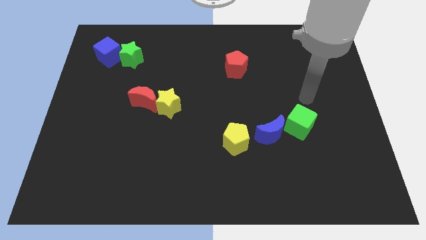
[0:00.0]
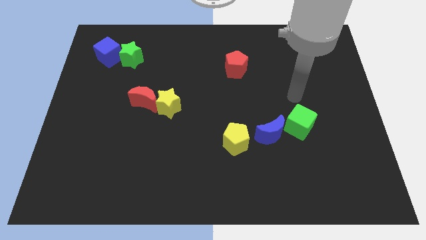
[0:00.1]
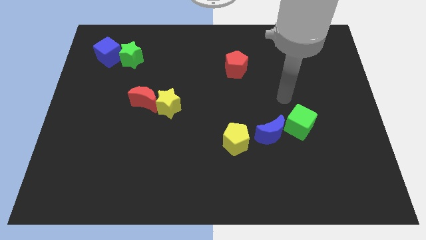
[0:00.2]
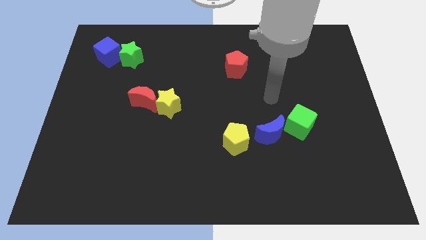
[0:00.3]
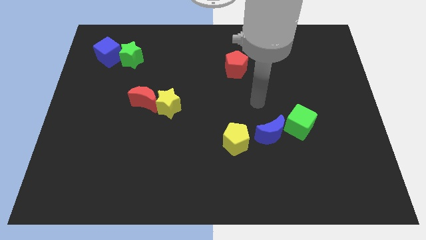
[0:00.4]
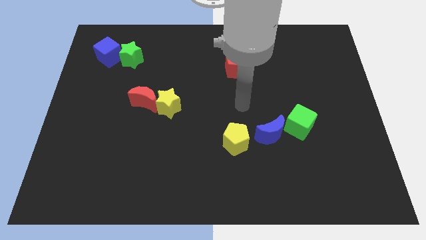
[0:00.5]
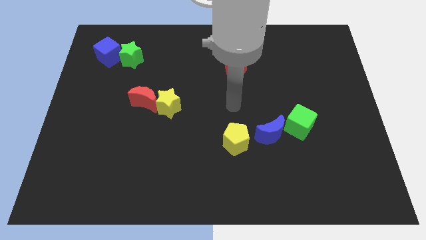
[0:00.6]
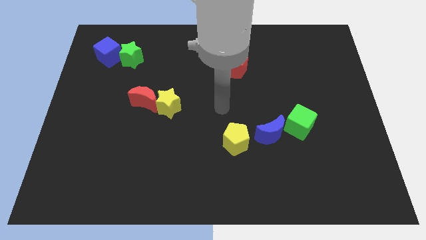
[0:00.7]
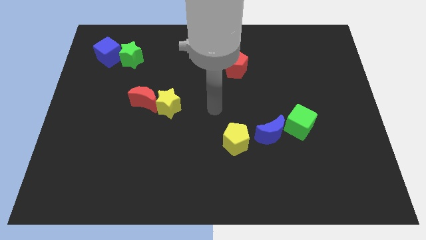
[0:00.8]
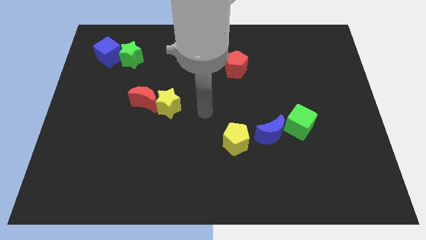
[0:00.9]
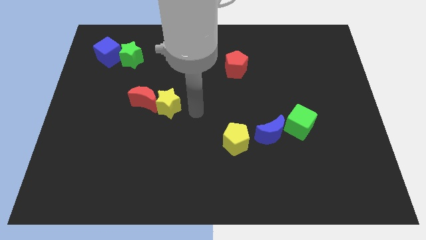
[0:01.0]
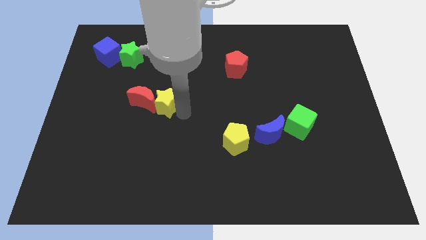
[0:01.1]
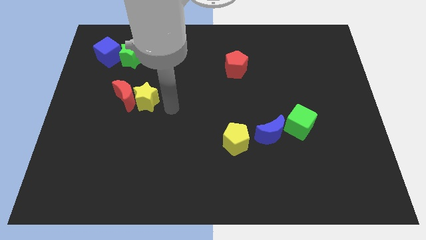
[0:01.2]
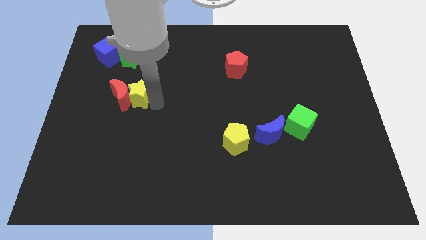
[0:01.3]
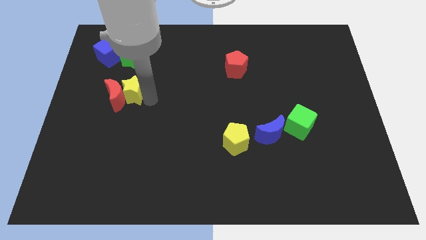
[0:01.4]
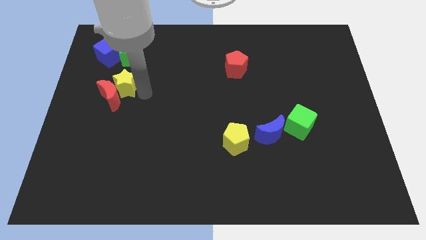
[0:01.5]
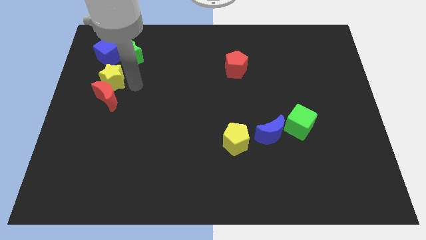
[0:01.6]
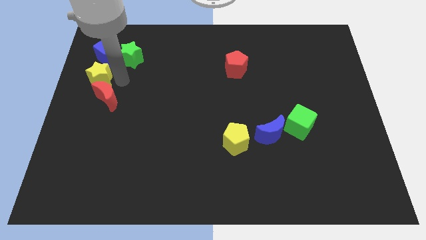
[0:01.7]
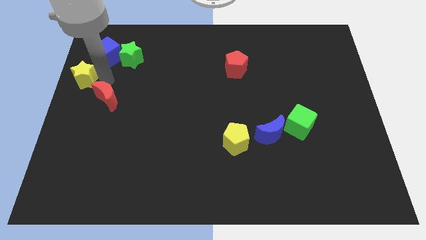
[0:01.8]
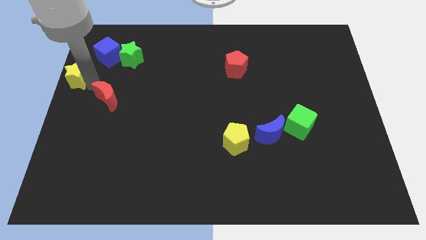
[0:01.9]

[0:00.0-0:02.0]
separate the red moon from the yellow star

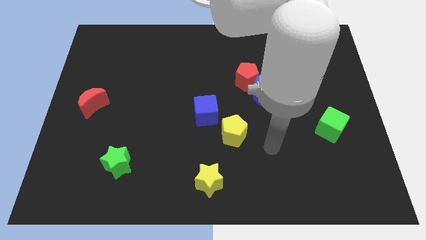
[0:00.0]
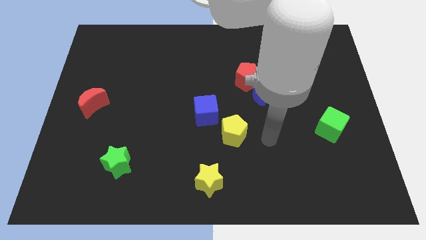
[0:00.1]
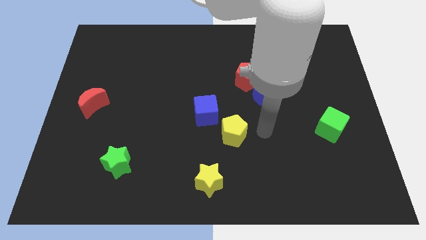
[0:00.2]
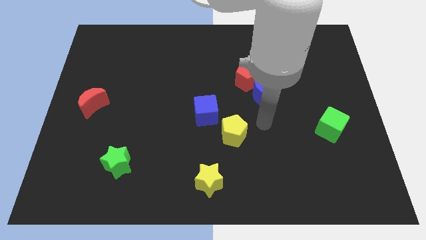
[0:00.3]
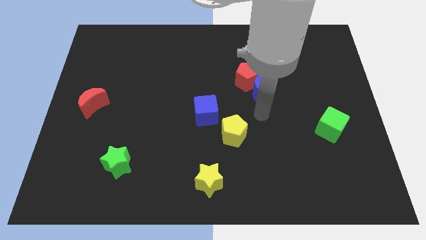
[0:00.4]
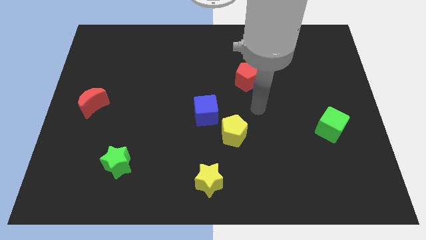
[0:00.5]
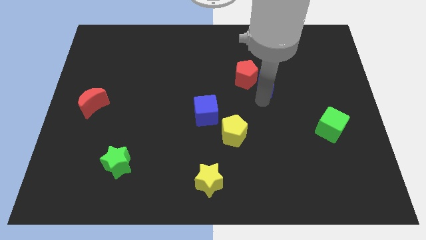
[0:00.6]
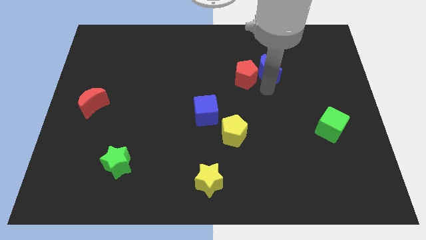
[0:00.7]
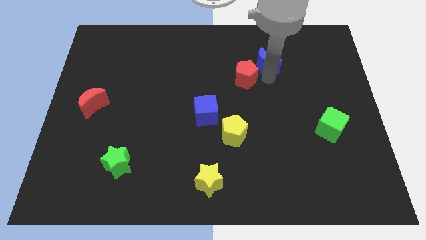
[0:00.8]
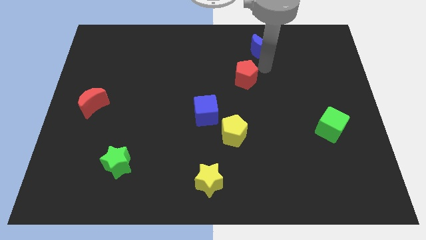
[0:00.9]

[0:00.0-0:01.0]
separate the red pentagon from the blue moon

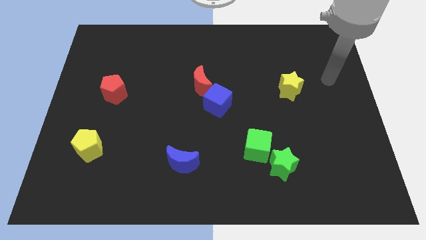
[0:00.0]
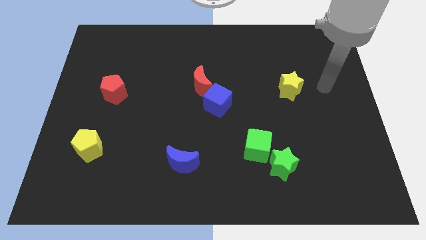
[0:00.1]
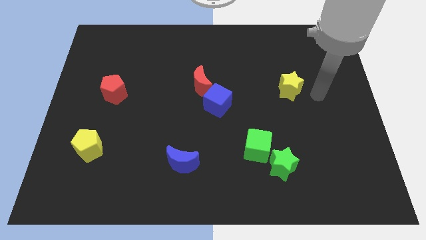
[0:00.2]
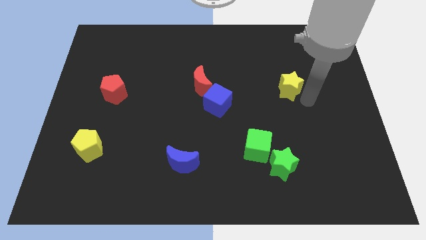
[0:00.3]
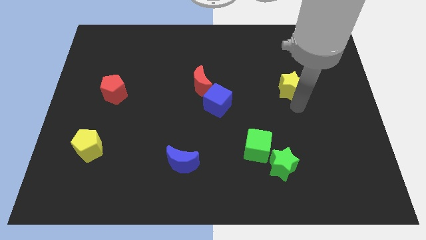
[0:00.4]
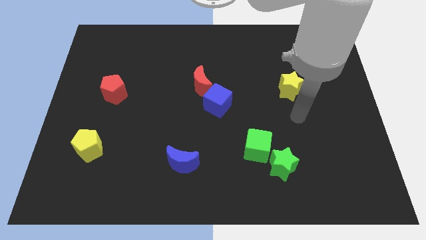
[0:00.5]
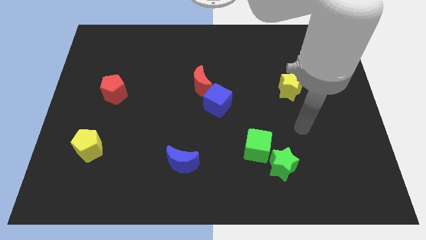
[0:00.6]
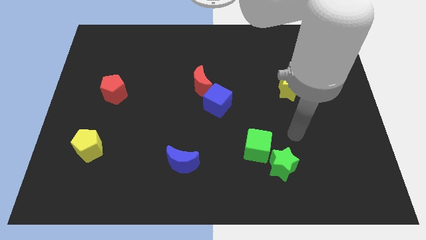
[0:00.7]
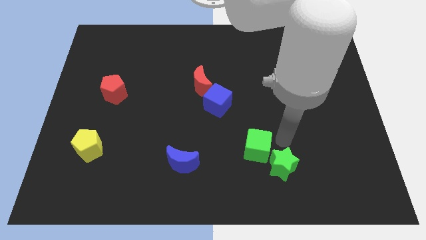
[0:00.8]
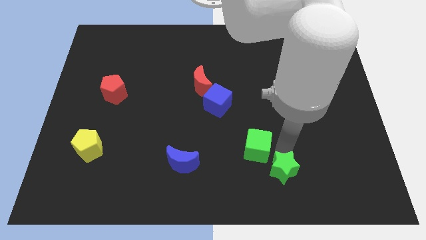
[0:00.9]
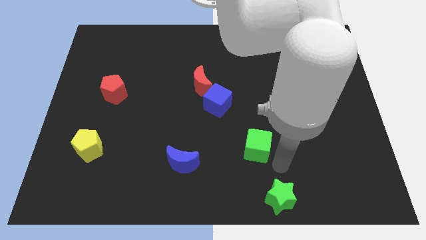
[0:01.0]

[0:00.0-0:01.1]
pull the green cube apart from the green star

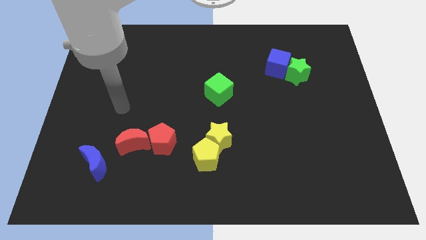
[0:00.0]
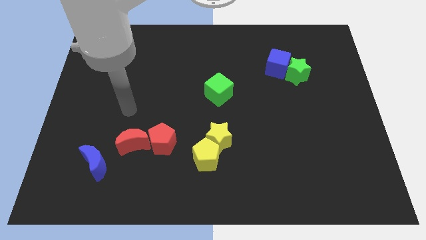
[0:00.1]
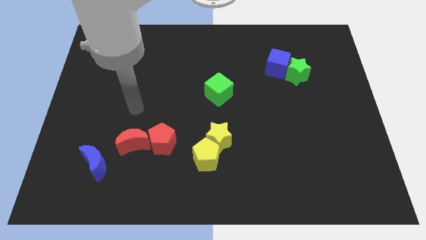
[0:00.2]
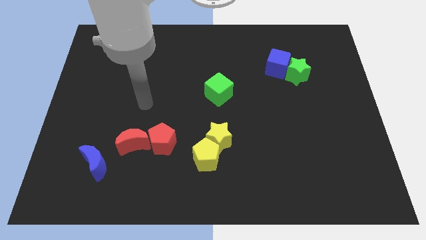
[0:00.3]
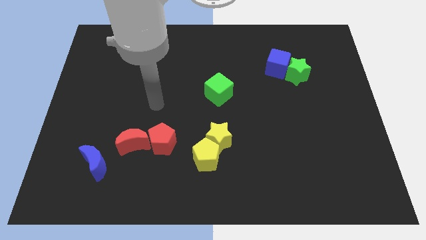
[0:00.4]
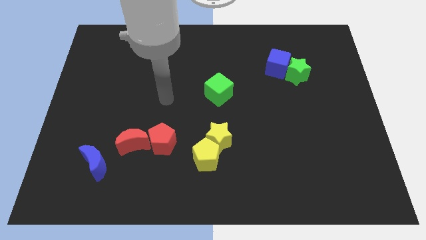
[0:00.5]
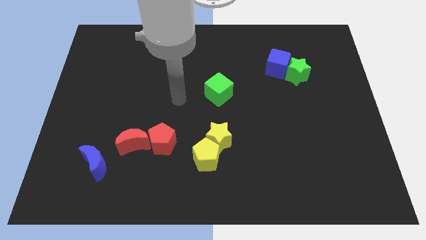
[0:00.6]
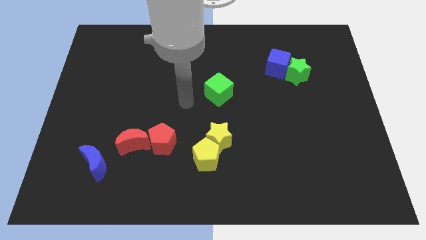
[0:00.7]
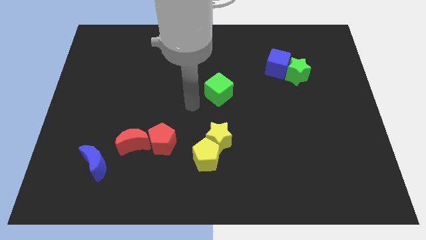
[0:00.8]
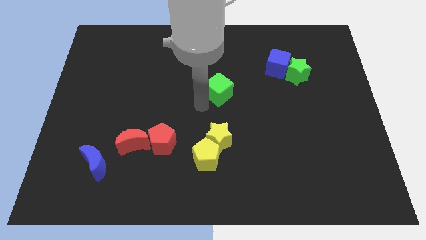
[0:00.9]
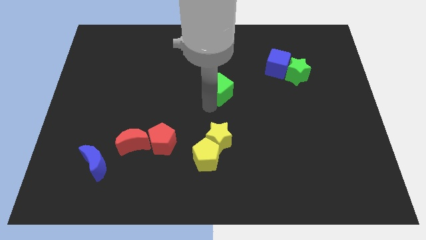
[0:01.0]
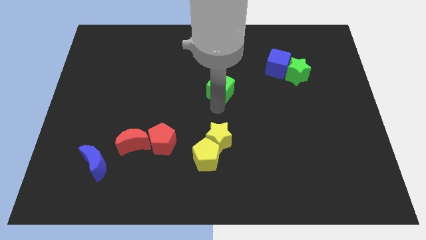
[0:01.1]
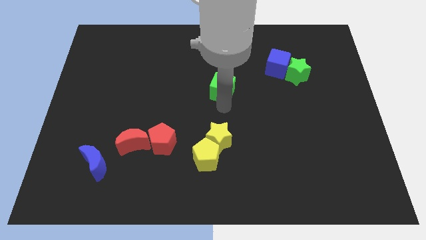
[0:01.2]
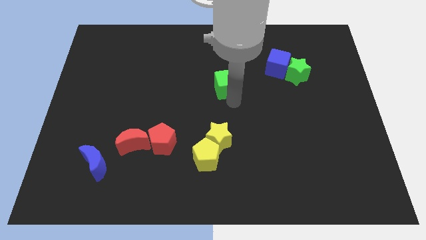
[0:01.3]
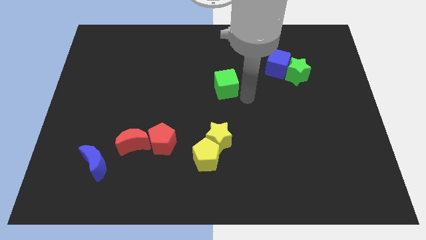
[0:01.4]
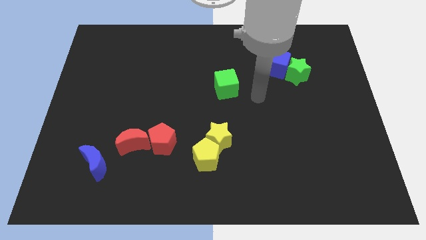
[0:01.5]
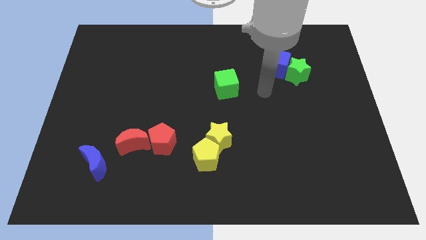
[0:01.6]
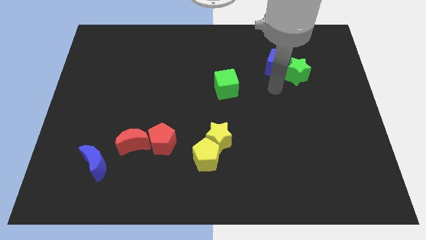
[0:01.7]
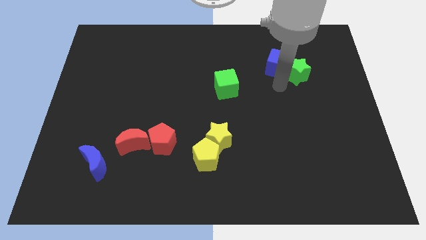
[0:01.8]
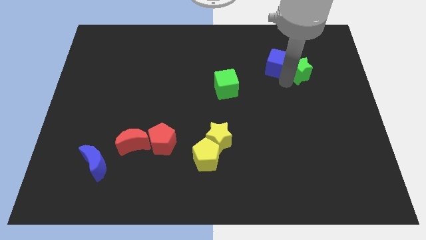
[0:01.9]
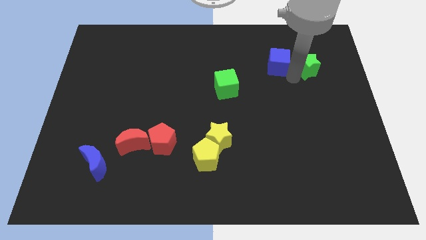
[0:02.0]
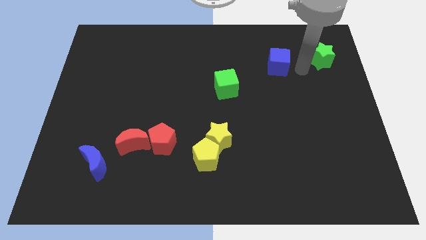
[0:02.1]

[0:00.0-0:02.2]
pull the blue cube apart from the green star

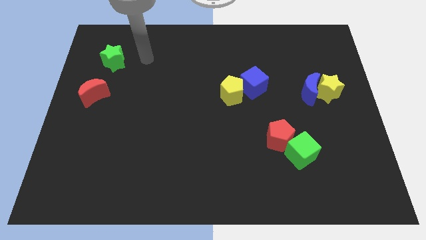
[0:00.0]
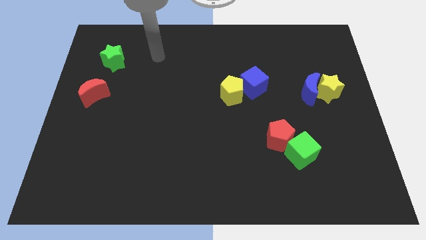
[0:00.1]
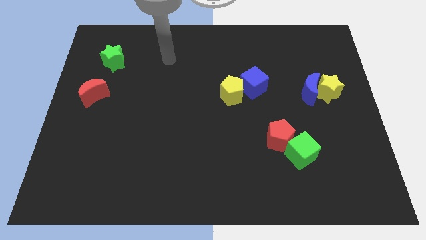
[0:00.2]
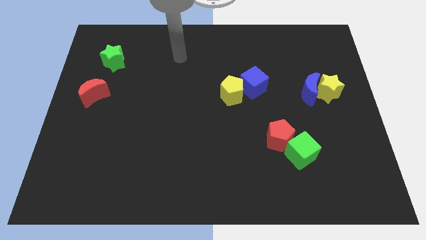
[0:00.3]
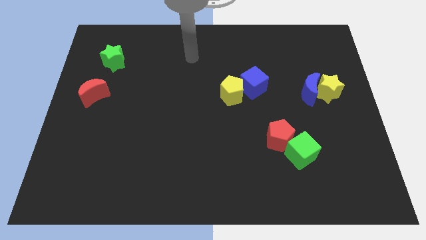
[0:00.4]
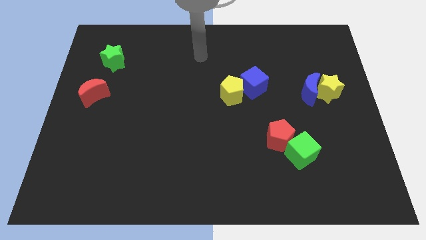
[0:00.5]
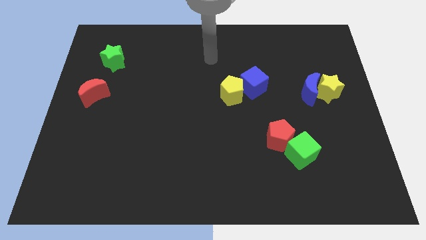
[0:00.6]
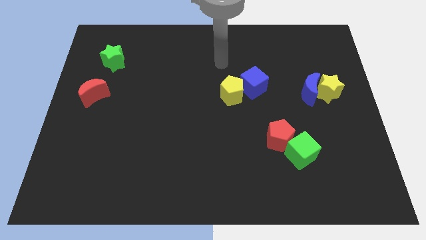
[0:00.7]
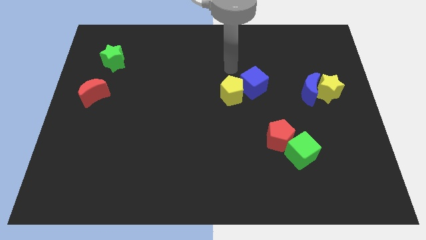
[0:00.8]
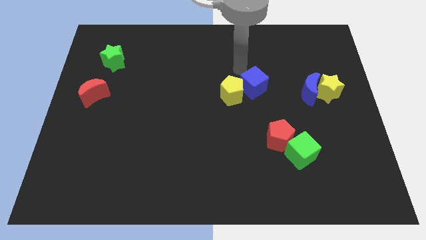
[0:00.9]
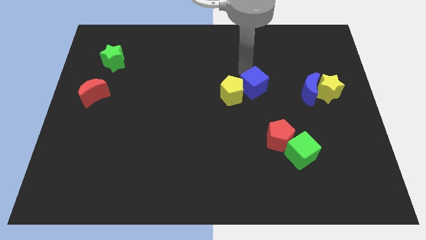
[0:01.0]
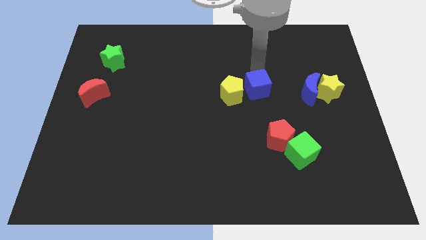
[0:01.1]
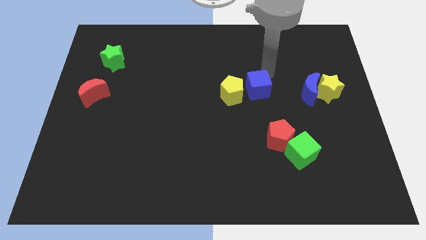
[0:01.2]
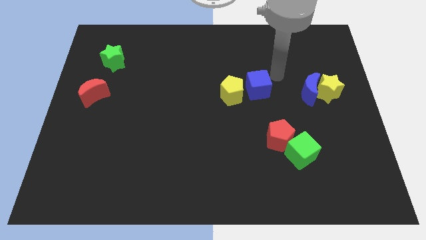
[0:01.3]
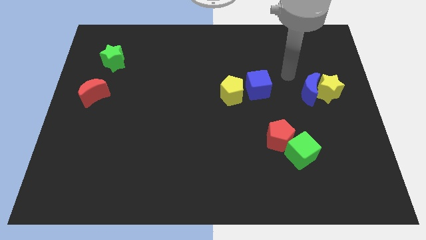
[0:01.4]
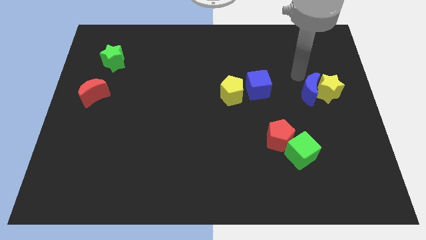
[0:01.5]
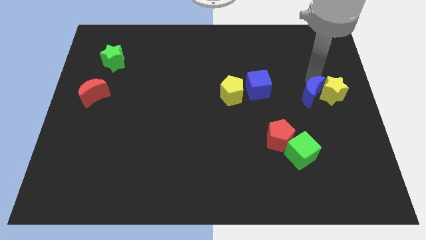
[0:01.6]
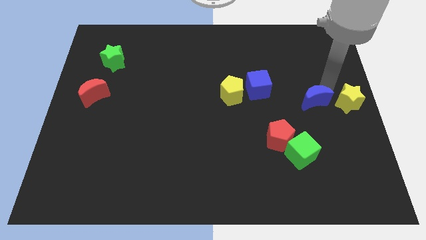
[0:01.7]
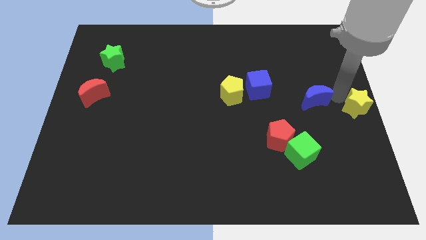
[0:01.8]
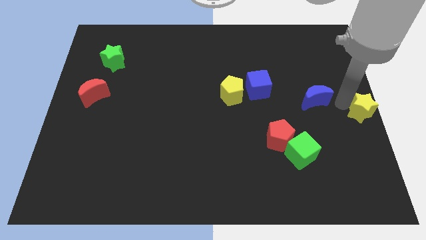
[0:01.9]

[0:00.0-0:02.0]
pull the blue moon apart from the yellow star

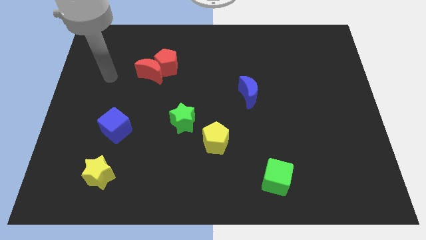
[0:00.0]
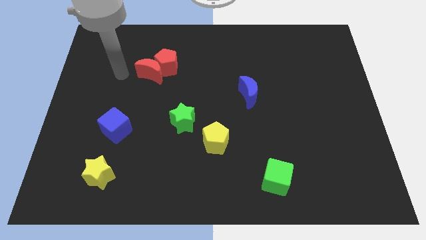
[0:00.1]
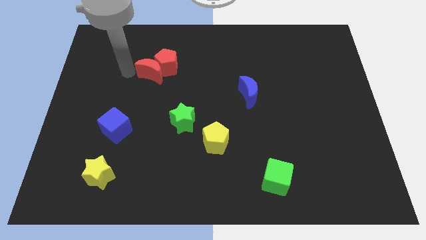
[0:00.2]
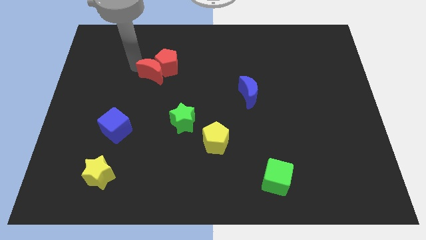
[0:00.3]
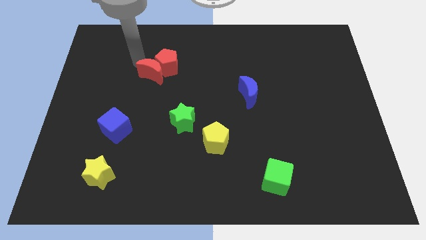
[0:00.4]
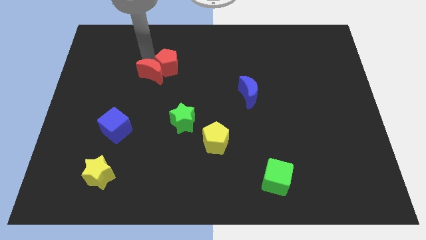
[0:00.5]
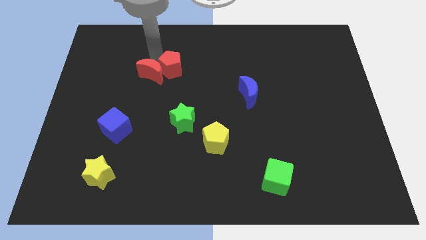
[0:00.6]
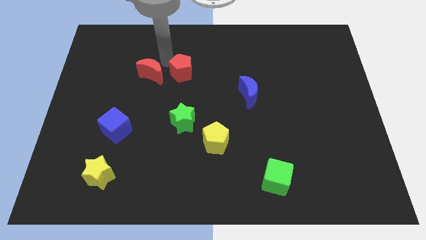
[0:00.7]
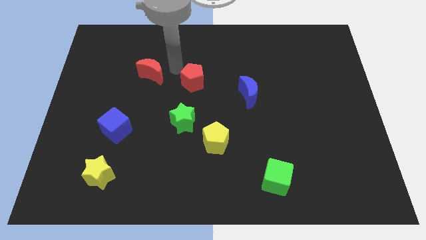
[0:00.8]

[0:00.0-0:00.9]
move the red moon away from the red pentagon

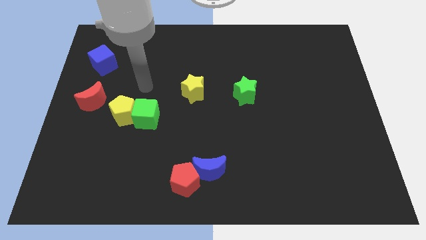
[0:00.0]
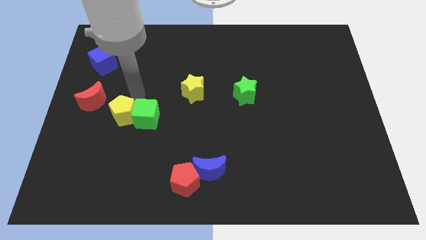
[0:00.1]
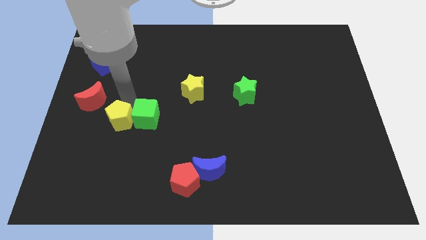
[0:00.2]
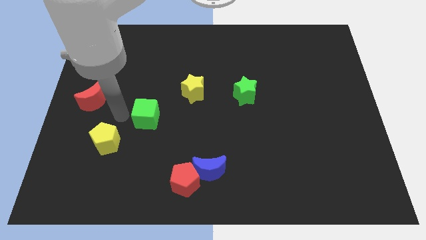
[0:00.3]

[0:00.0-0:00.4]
separate the green cube from the yellow pentagon
